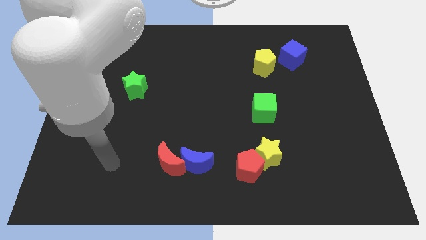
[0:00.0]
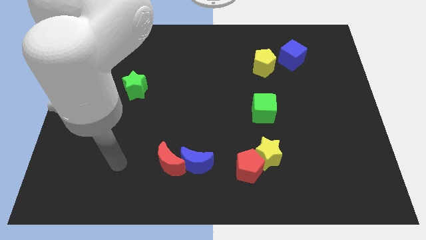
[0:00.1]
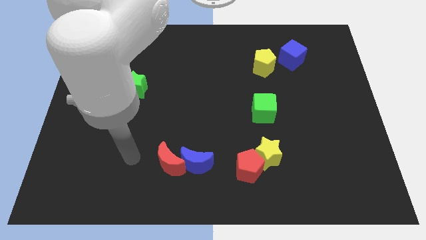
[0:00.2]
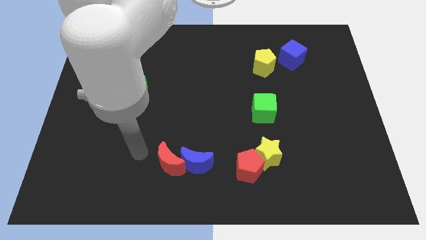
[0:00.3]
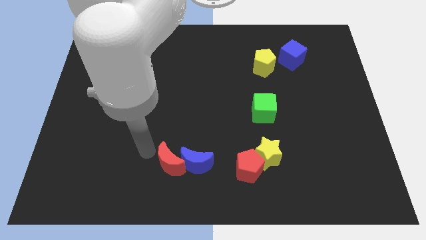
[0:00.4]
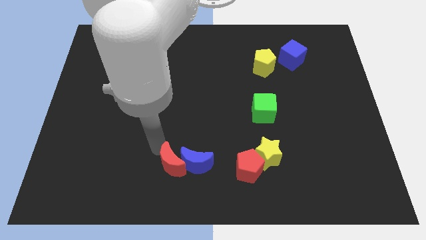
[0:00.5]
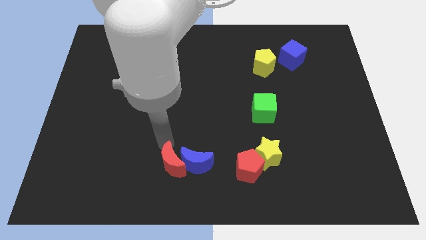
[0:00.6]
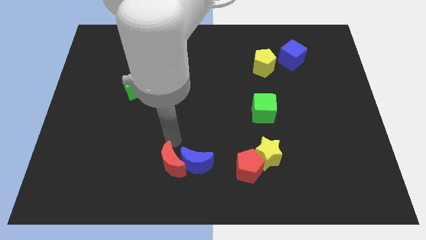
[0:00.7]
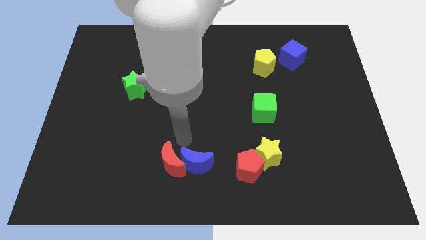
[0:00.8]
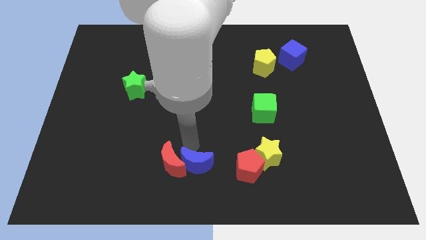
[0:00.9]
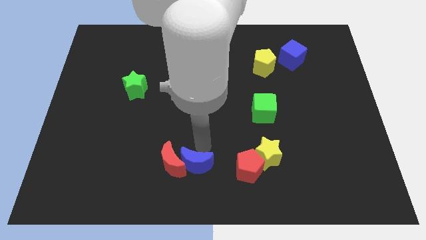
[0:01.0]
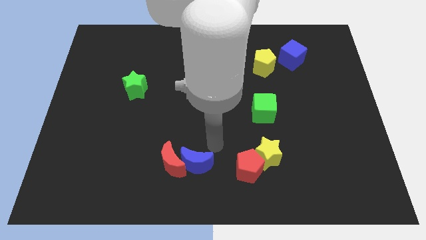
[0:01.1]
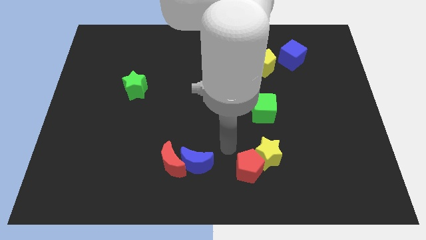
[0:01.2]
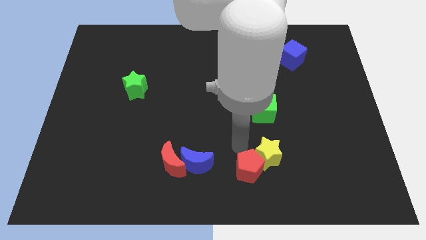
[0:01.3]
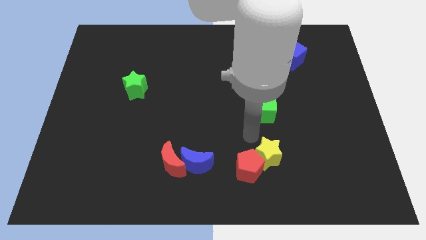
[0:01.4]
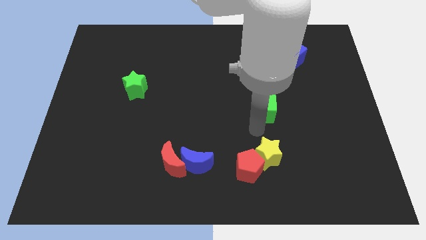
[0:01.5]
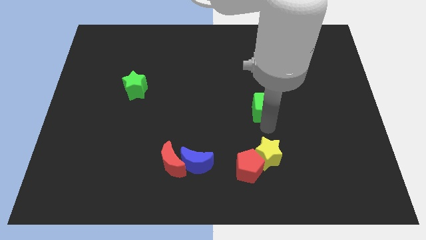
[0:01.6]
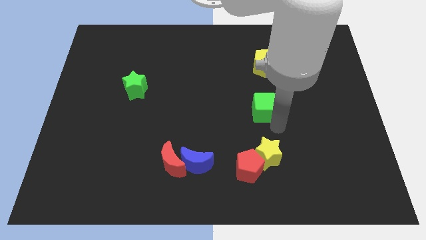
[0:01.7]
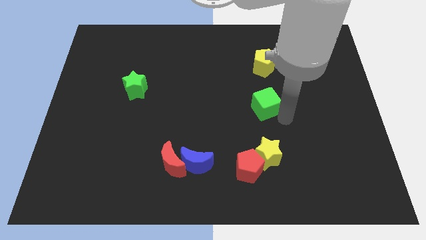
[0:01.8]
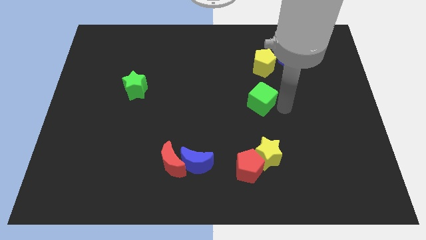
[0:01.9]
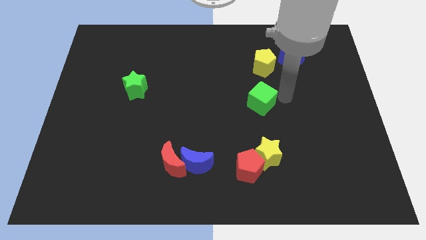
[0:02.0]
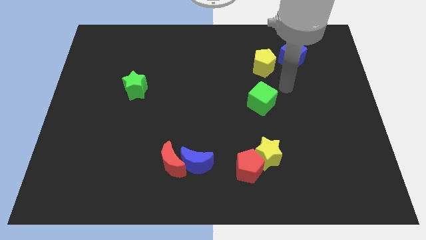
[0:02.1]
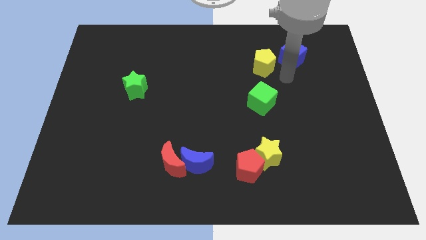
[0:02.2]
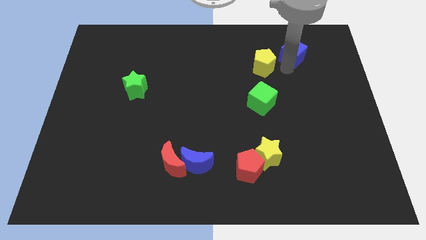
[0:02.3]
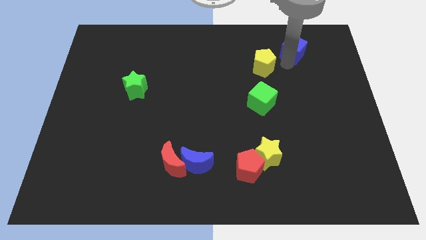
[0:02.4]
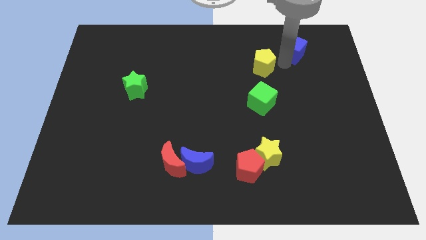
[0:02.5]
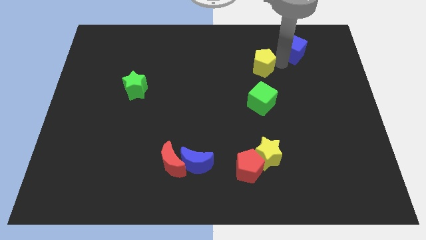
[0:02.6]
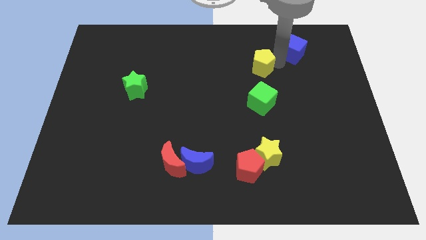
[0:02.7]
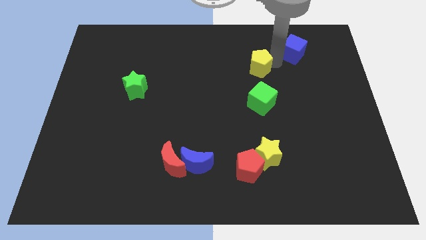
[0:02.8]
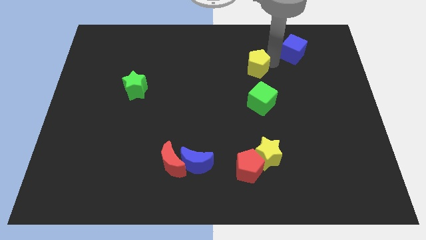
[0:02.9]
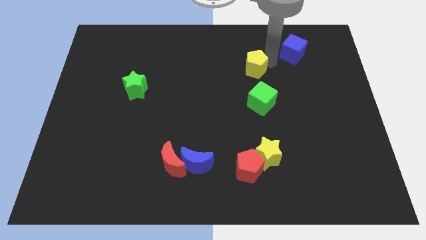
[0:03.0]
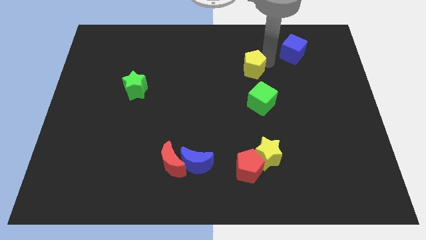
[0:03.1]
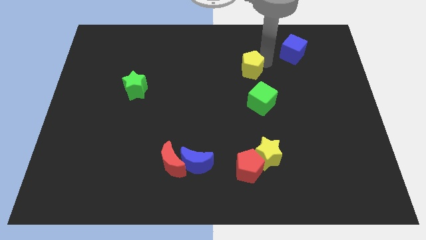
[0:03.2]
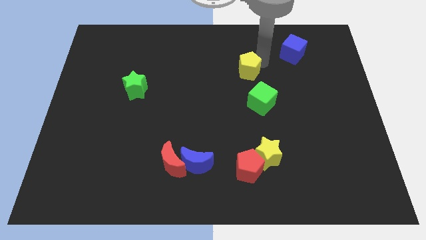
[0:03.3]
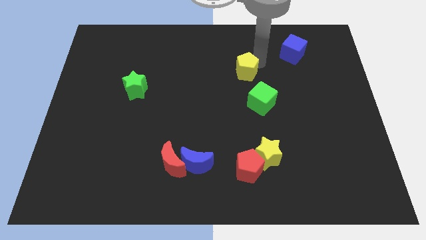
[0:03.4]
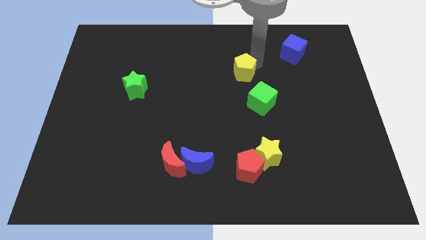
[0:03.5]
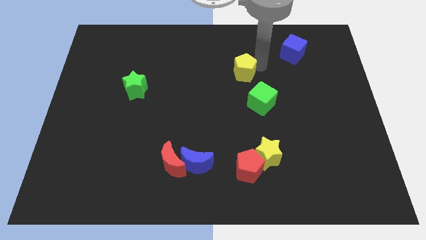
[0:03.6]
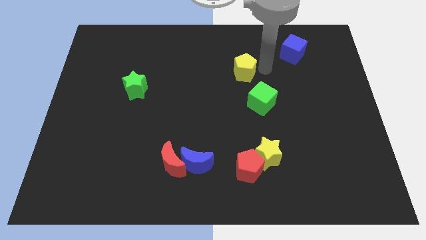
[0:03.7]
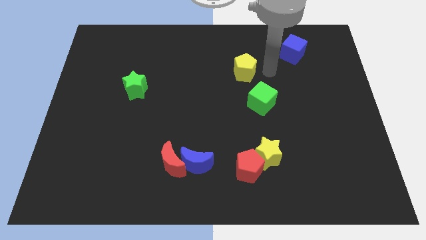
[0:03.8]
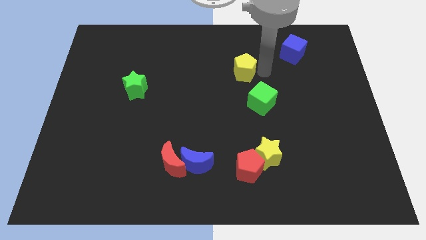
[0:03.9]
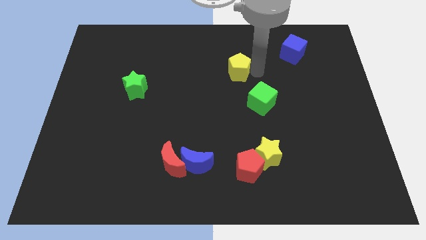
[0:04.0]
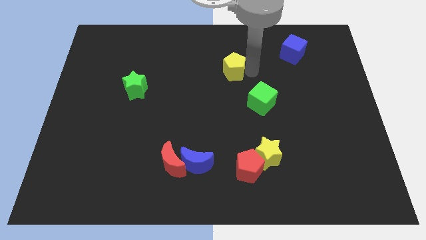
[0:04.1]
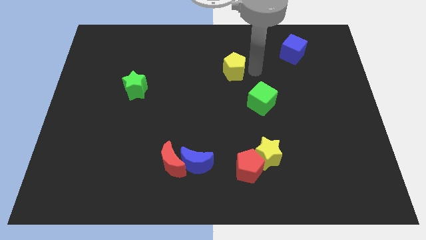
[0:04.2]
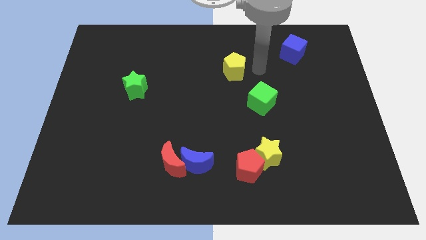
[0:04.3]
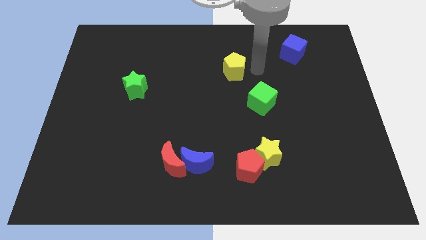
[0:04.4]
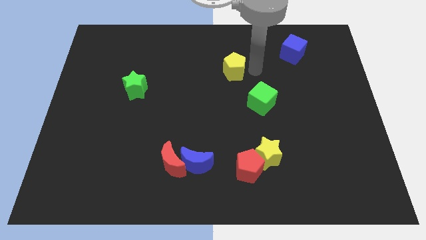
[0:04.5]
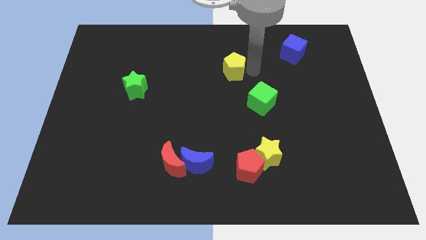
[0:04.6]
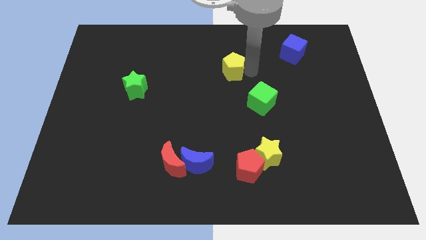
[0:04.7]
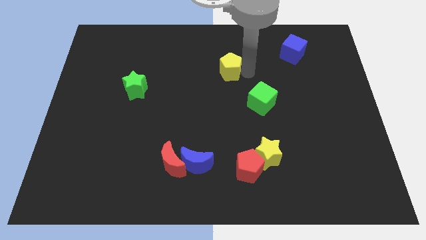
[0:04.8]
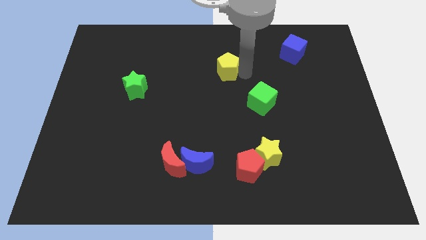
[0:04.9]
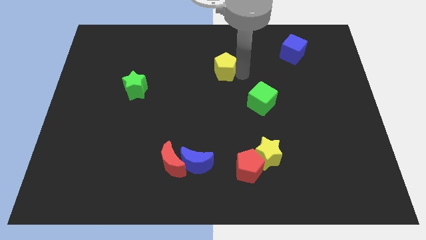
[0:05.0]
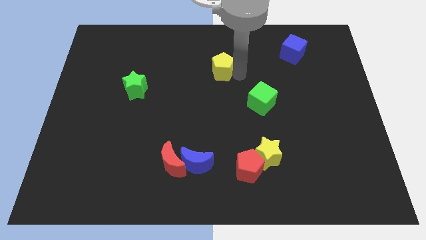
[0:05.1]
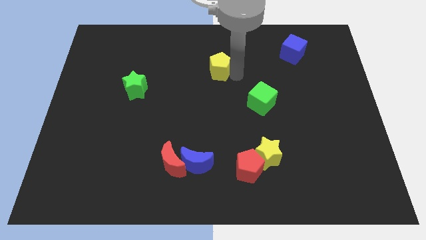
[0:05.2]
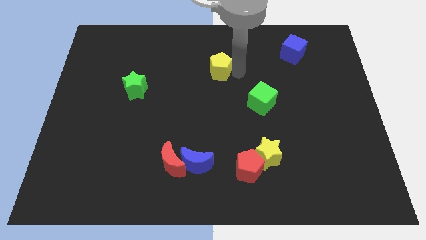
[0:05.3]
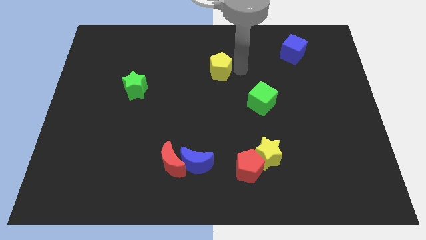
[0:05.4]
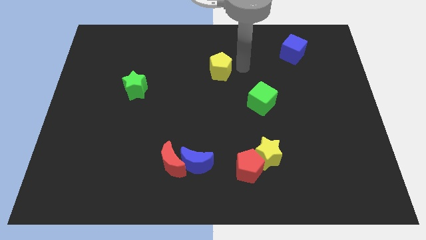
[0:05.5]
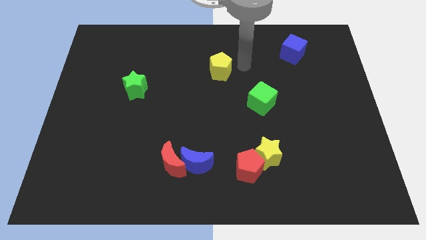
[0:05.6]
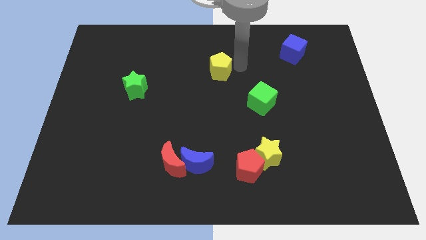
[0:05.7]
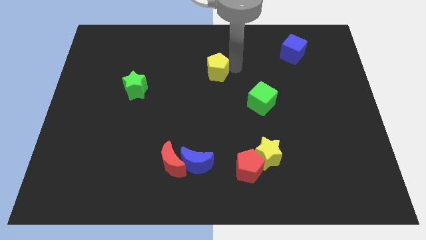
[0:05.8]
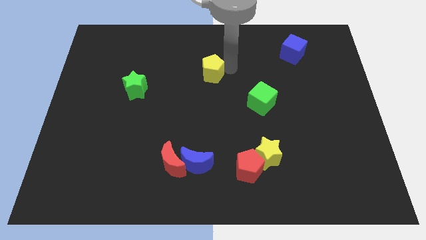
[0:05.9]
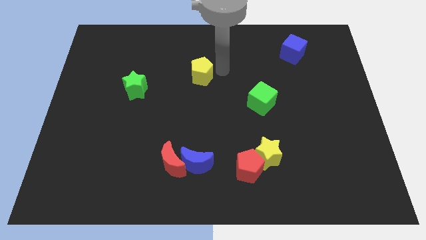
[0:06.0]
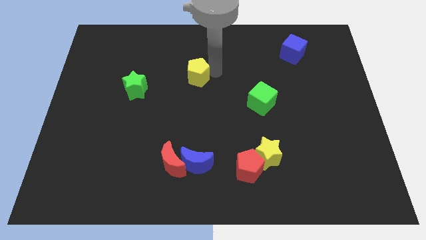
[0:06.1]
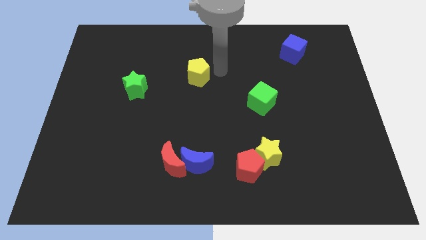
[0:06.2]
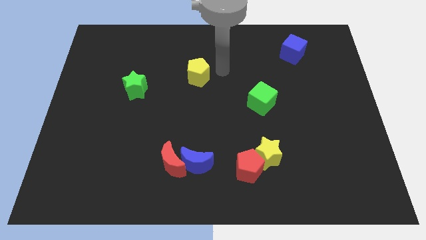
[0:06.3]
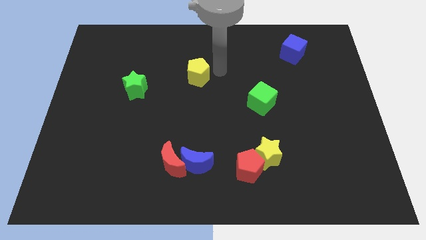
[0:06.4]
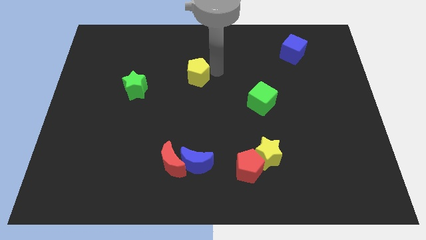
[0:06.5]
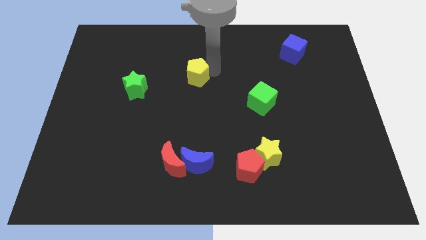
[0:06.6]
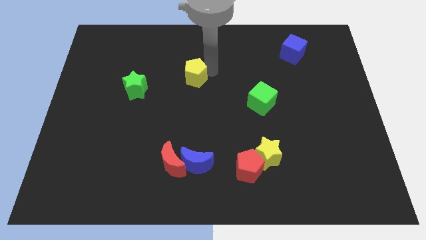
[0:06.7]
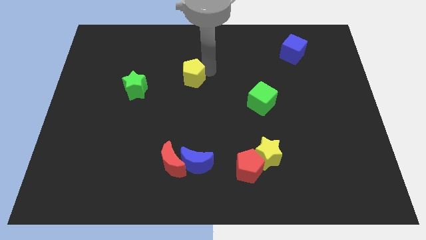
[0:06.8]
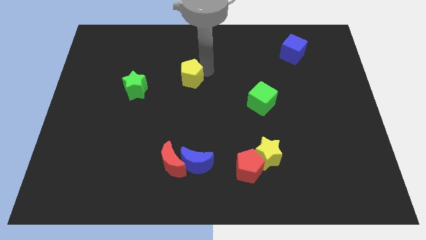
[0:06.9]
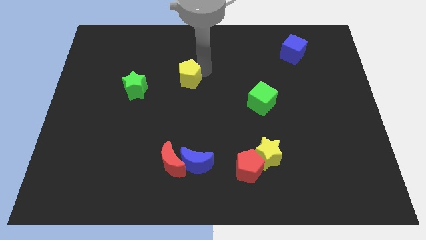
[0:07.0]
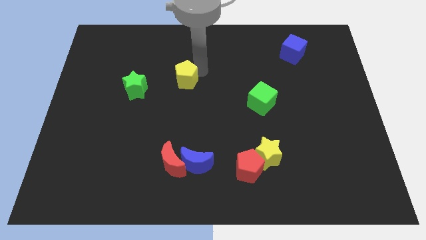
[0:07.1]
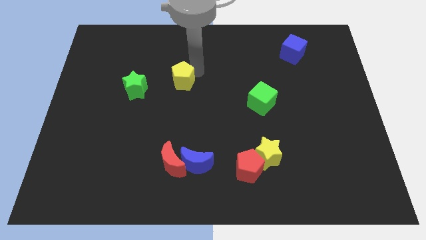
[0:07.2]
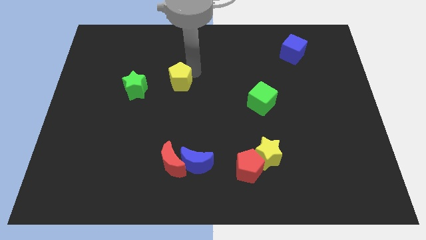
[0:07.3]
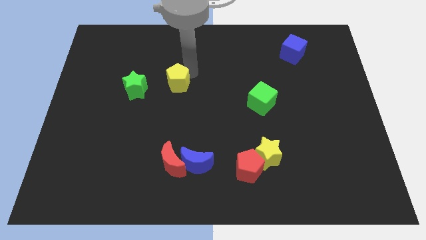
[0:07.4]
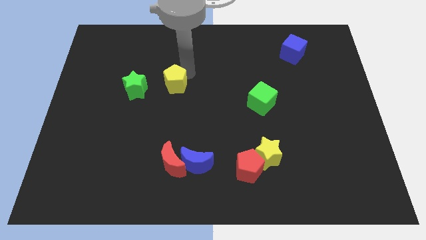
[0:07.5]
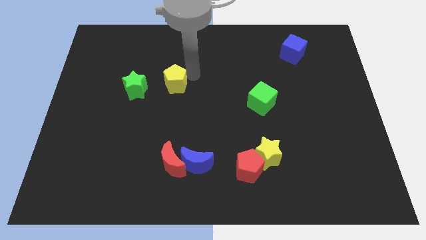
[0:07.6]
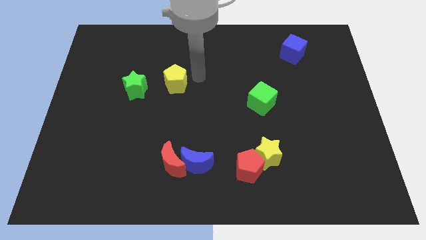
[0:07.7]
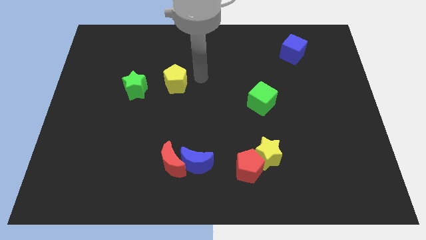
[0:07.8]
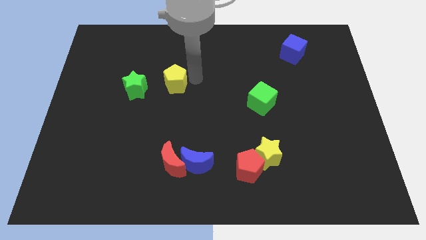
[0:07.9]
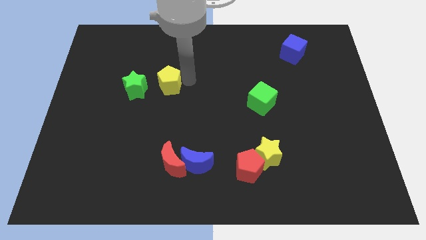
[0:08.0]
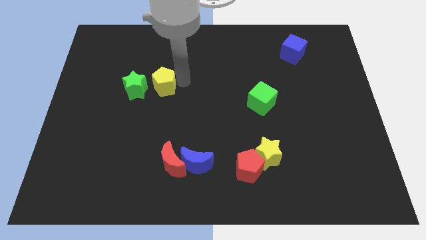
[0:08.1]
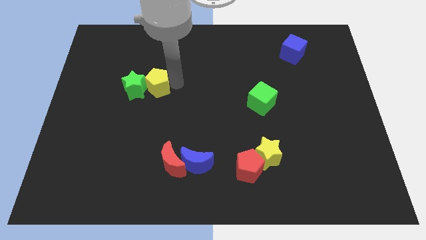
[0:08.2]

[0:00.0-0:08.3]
slide the yellow pentagon next to the green star
